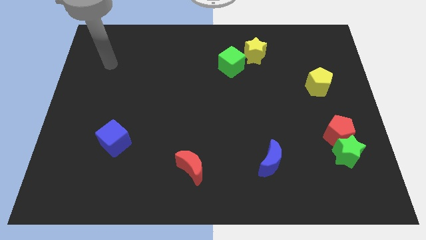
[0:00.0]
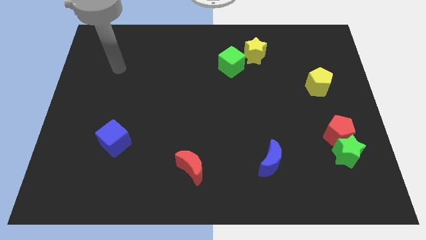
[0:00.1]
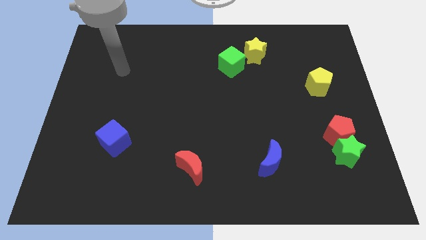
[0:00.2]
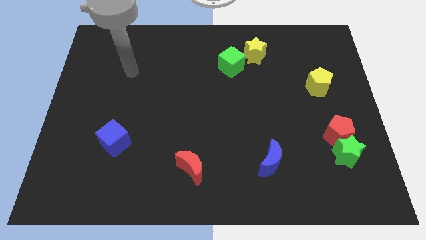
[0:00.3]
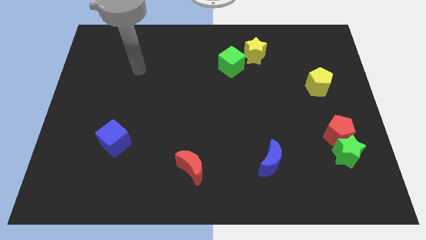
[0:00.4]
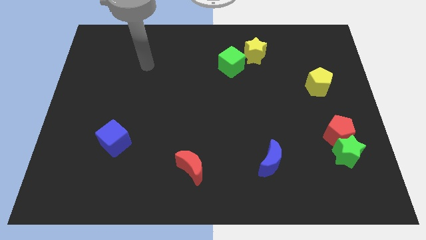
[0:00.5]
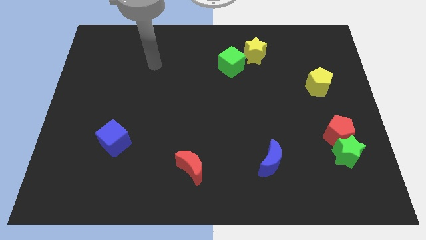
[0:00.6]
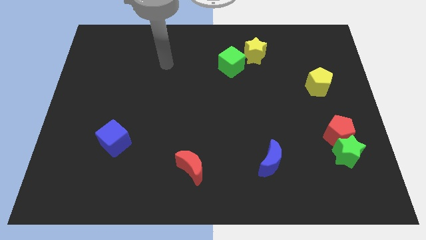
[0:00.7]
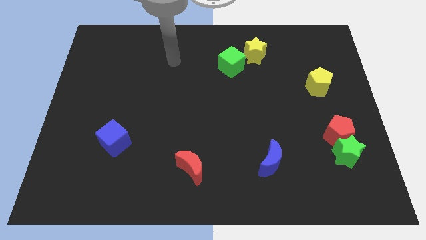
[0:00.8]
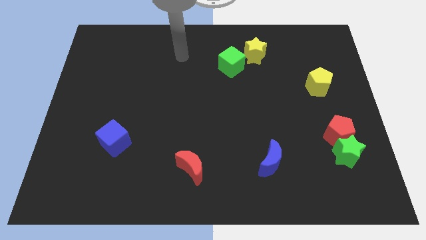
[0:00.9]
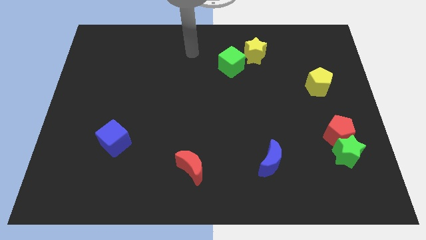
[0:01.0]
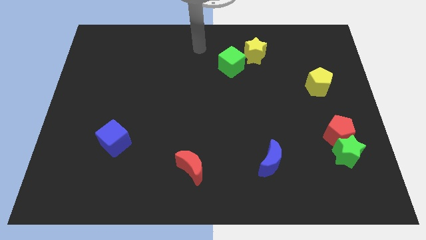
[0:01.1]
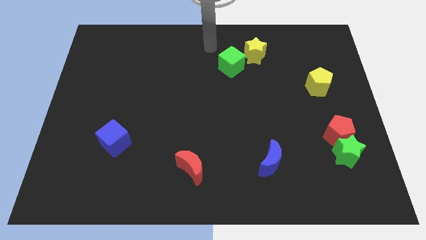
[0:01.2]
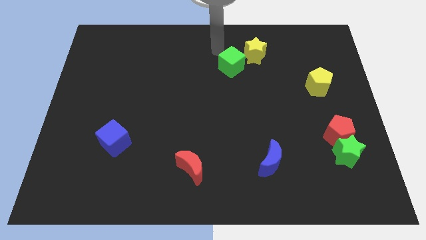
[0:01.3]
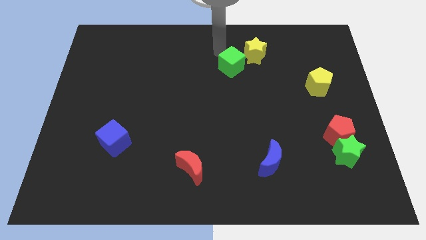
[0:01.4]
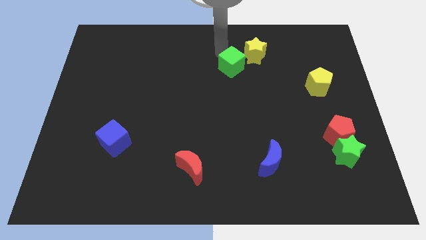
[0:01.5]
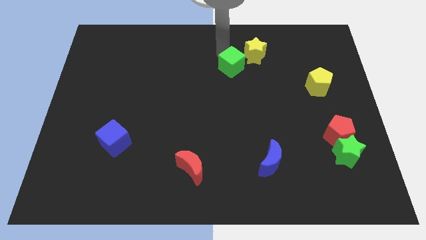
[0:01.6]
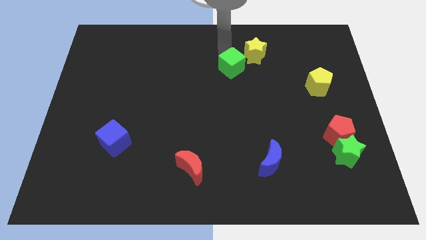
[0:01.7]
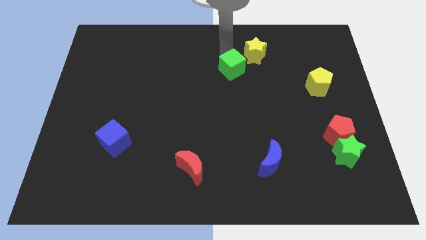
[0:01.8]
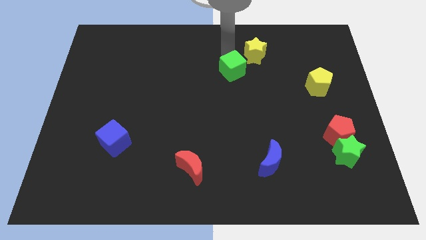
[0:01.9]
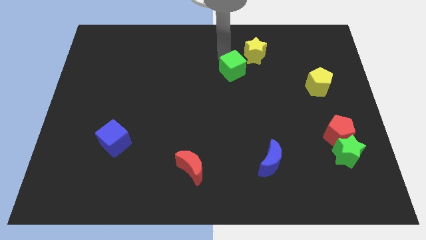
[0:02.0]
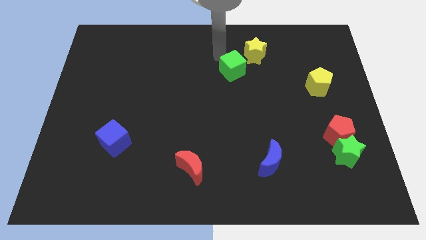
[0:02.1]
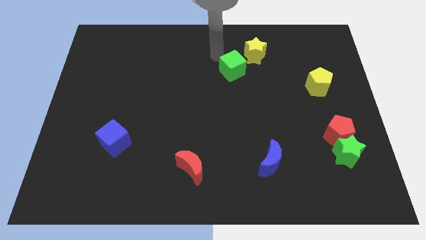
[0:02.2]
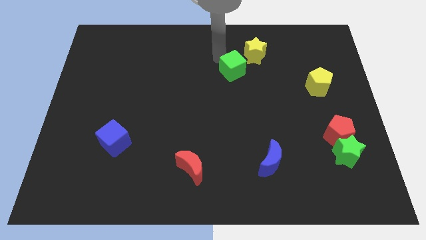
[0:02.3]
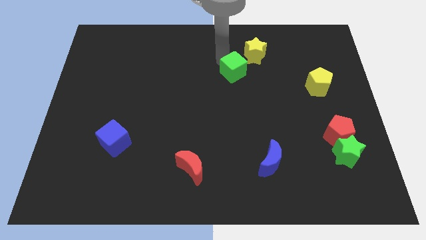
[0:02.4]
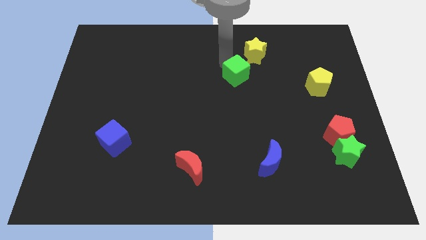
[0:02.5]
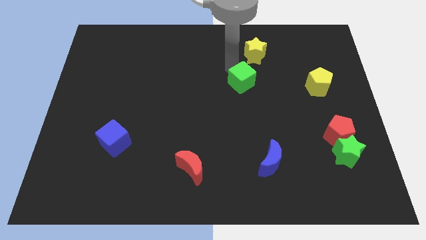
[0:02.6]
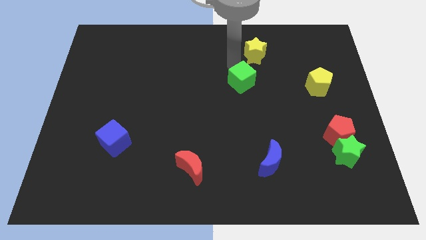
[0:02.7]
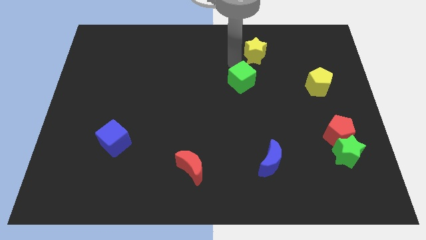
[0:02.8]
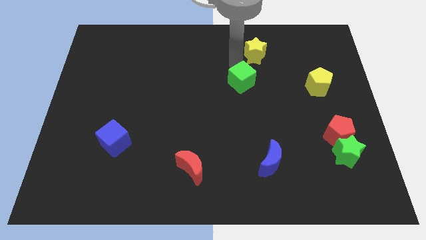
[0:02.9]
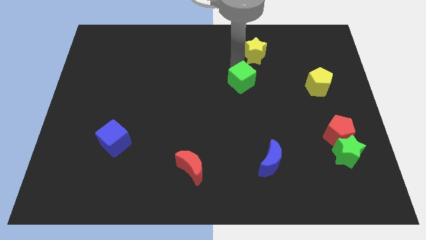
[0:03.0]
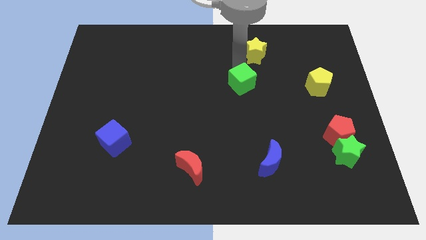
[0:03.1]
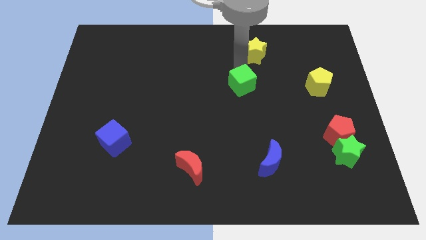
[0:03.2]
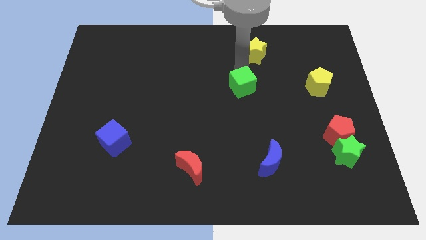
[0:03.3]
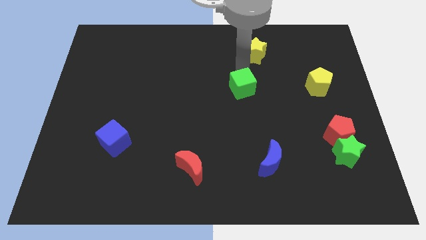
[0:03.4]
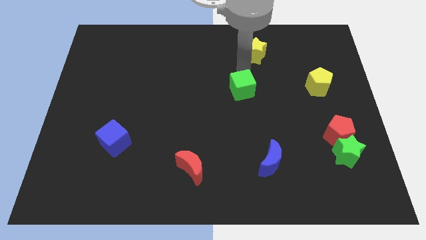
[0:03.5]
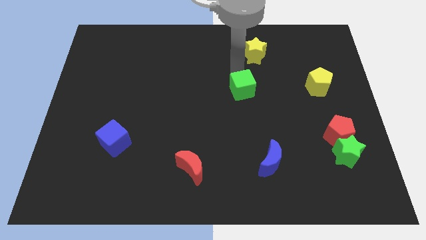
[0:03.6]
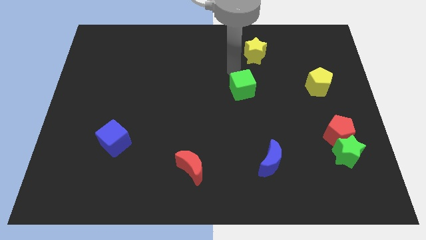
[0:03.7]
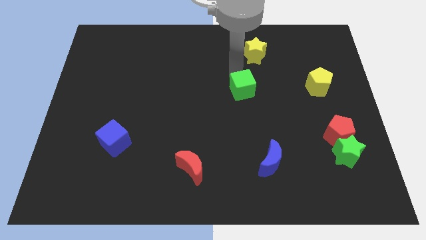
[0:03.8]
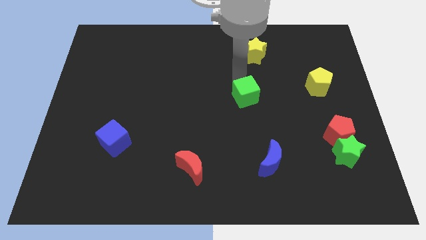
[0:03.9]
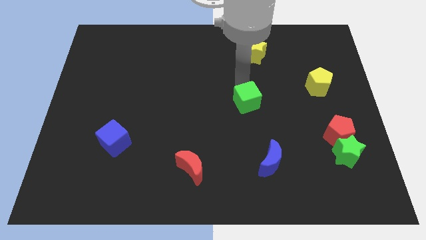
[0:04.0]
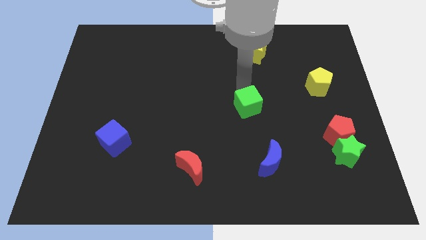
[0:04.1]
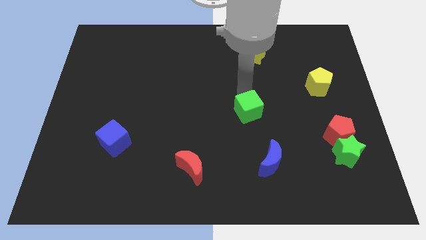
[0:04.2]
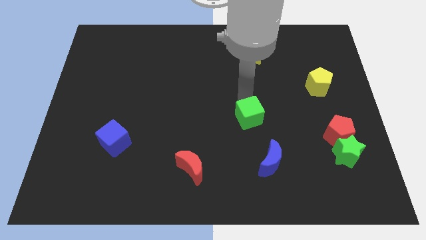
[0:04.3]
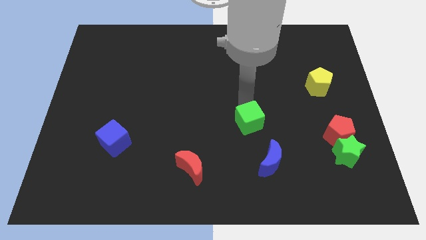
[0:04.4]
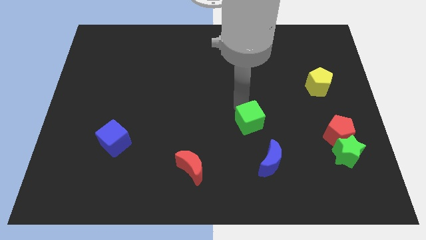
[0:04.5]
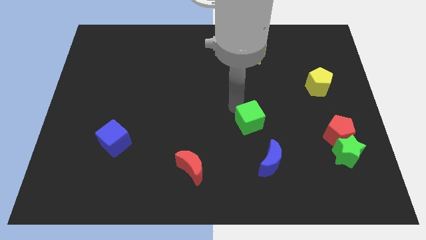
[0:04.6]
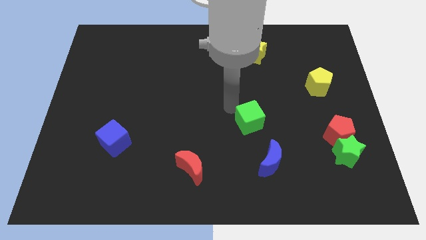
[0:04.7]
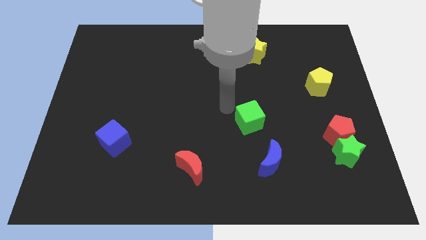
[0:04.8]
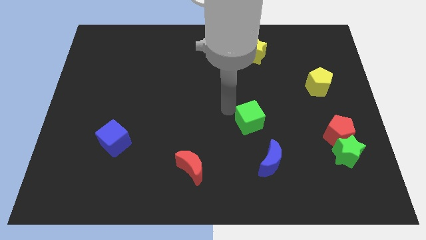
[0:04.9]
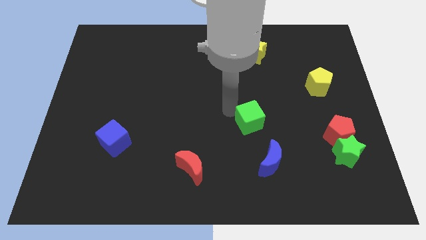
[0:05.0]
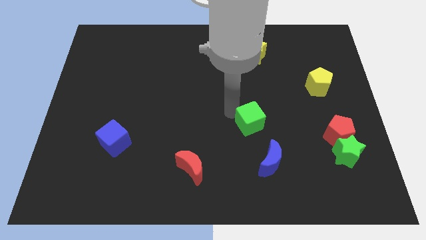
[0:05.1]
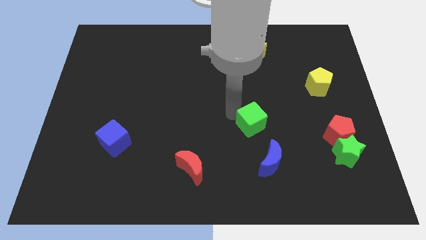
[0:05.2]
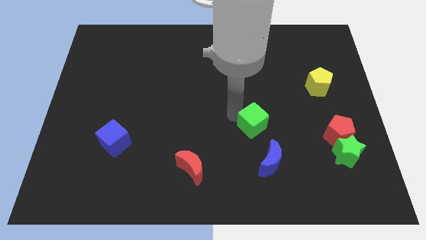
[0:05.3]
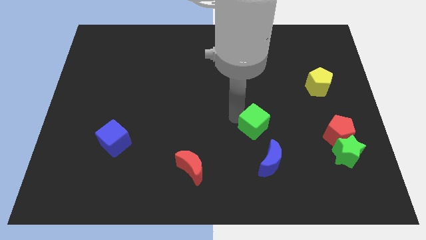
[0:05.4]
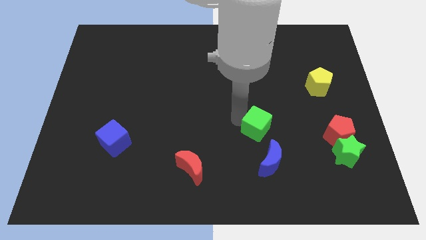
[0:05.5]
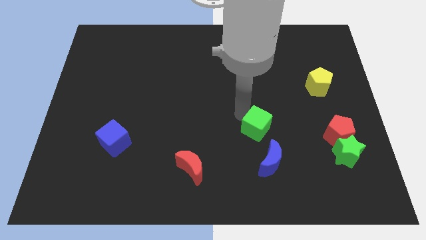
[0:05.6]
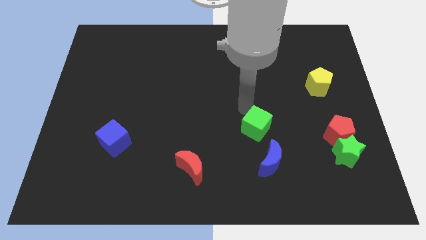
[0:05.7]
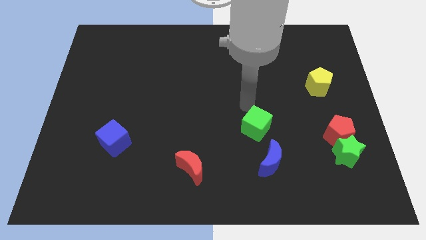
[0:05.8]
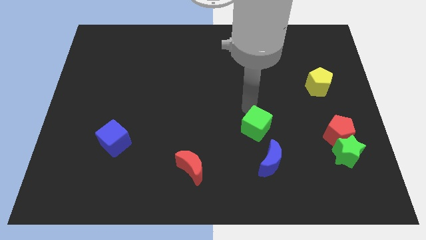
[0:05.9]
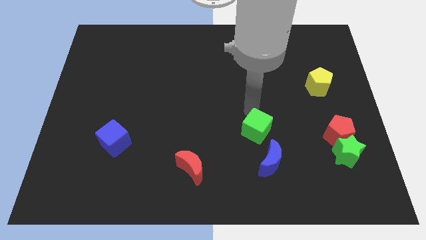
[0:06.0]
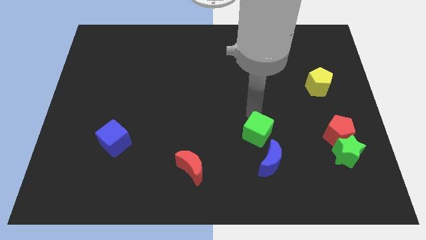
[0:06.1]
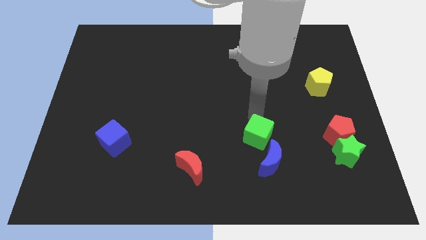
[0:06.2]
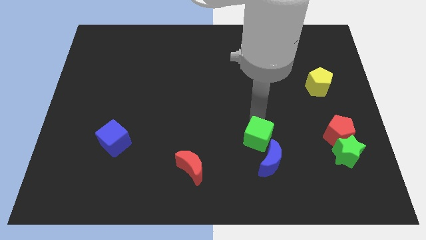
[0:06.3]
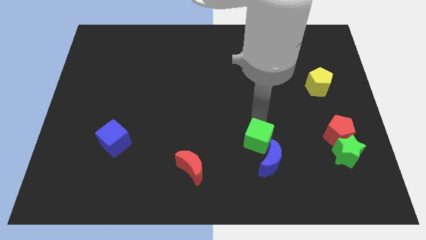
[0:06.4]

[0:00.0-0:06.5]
put the green cube close to the blue moon
